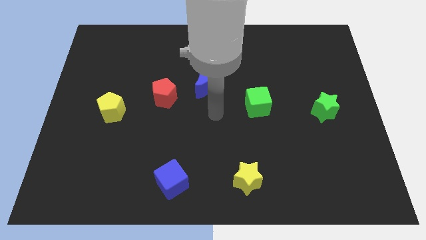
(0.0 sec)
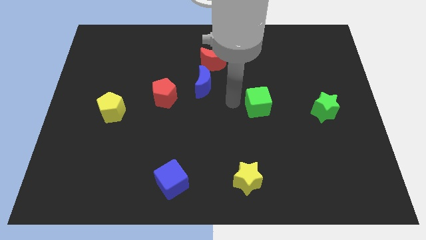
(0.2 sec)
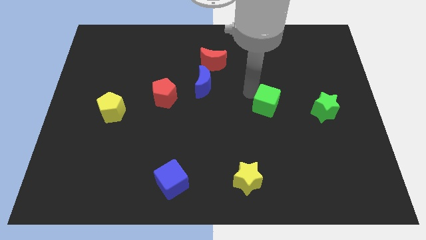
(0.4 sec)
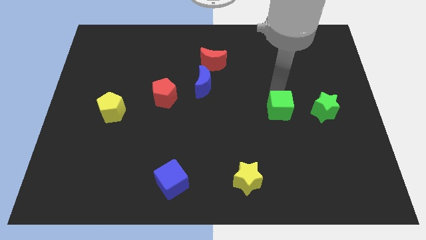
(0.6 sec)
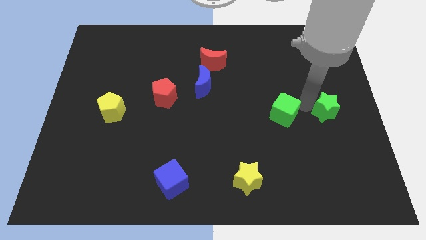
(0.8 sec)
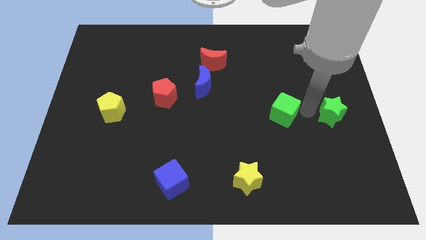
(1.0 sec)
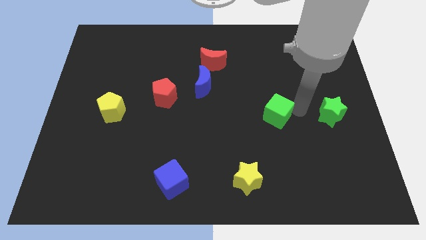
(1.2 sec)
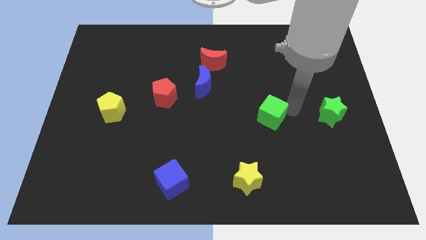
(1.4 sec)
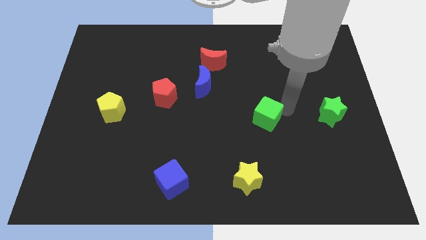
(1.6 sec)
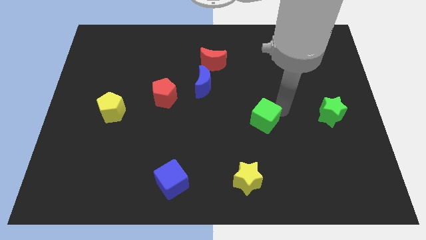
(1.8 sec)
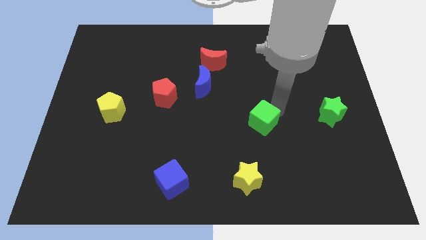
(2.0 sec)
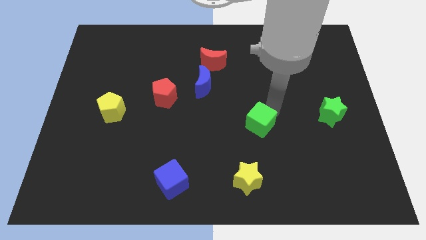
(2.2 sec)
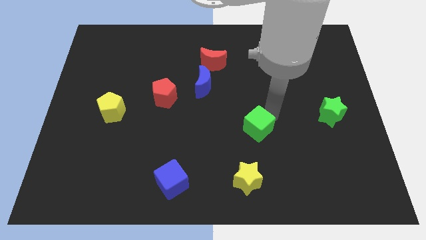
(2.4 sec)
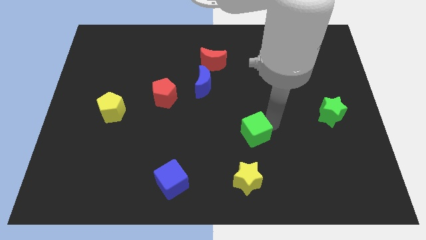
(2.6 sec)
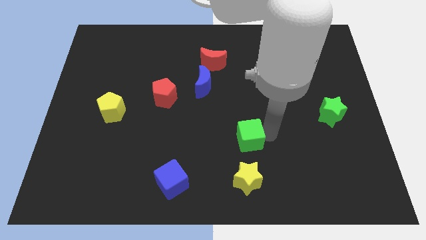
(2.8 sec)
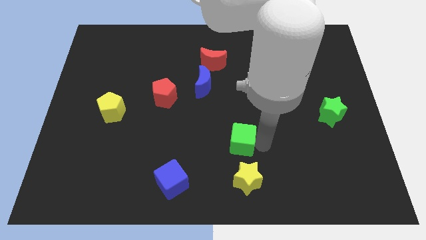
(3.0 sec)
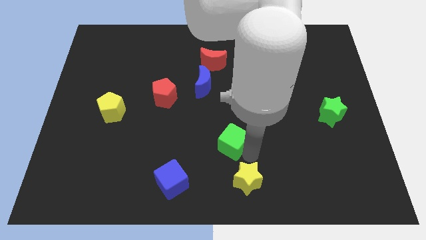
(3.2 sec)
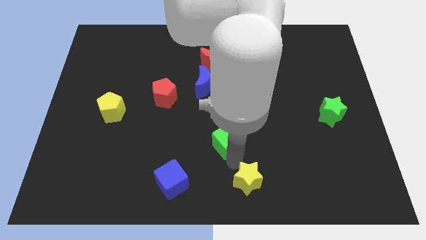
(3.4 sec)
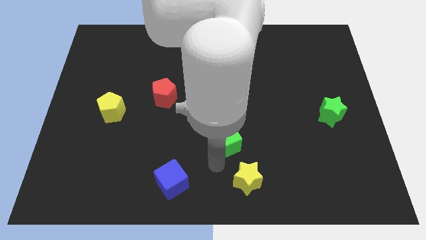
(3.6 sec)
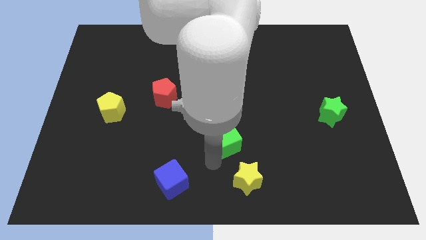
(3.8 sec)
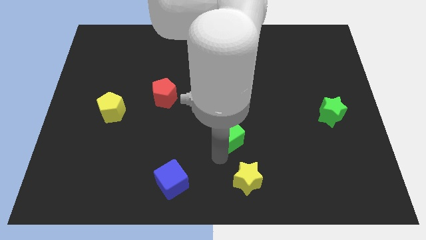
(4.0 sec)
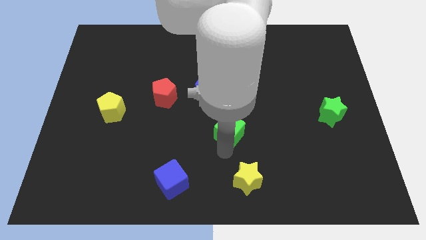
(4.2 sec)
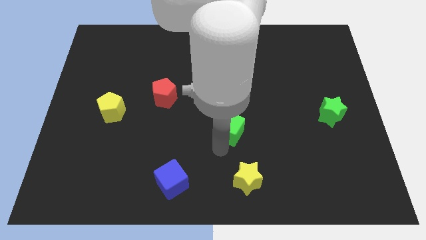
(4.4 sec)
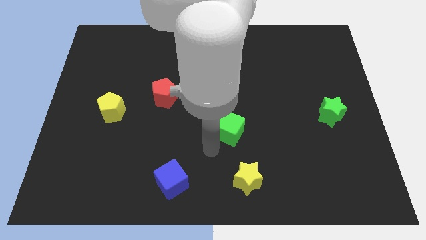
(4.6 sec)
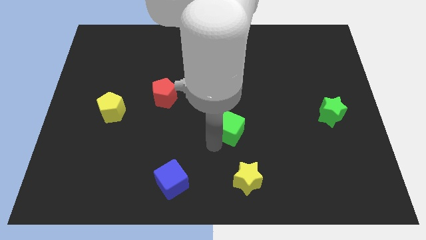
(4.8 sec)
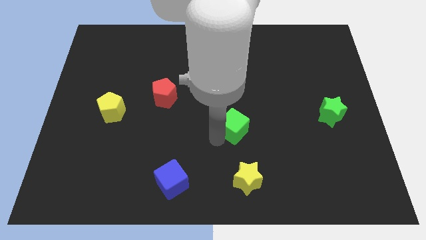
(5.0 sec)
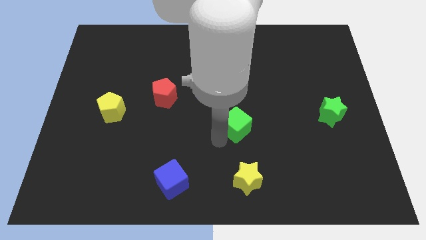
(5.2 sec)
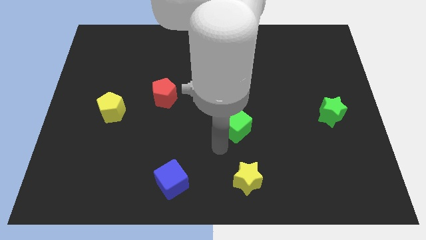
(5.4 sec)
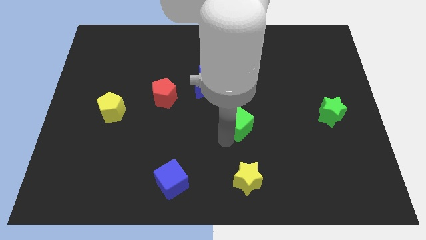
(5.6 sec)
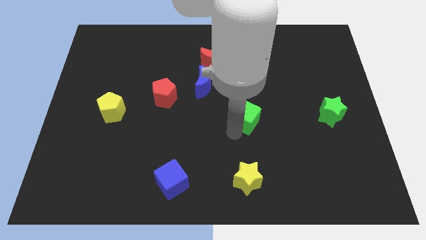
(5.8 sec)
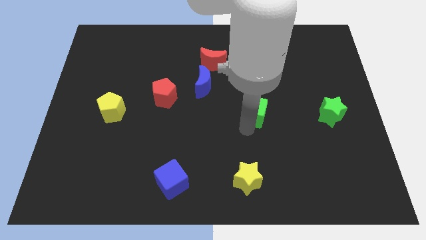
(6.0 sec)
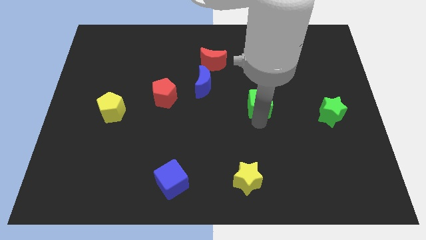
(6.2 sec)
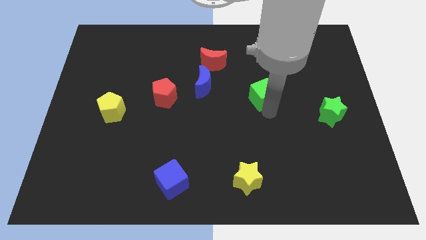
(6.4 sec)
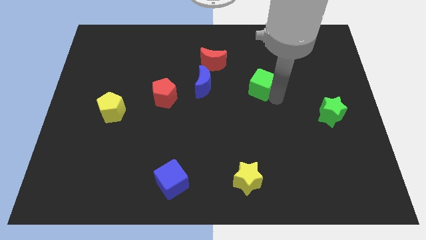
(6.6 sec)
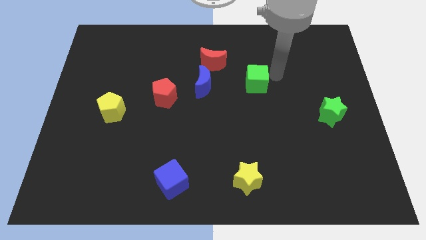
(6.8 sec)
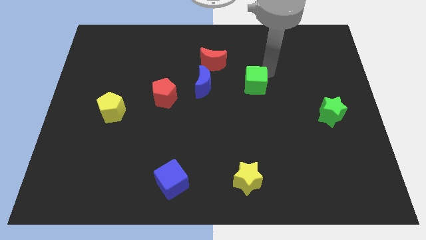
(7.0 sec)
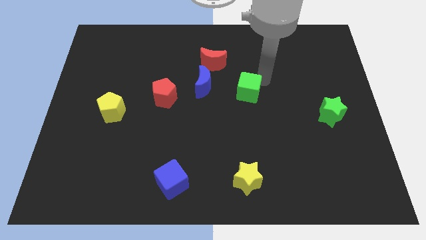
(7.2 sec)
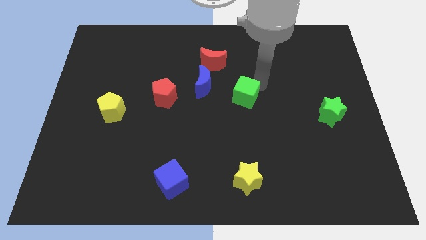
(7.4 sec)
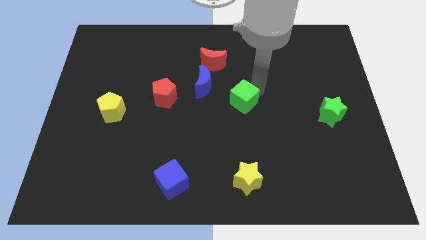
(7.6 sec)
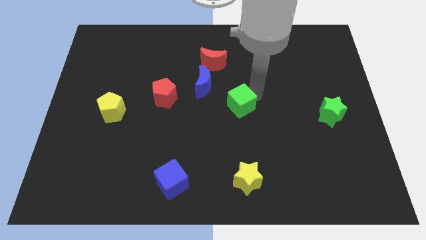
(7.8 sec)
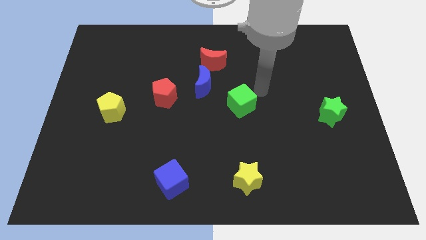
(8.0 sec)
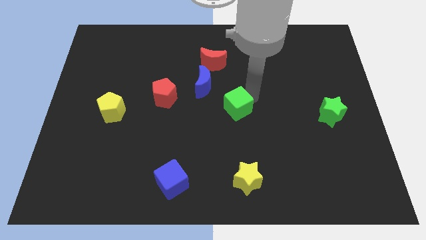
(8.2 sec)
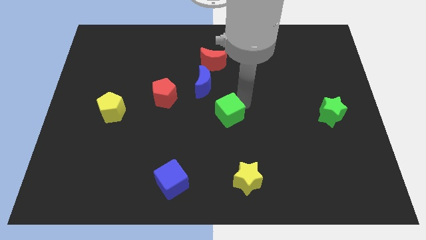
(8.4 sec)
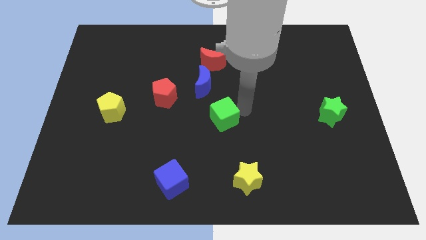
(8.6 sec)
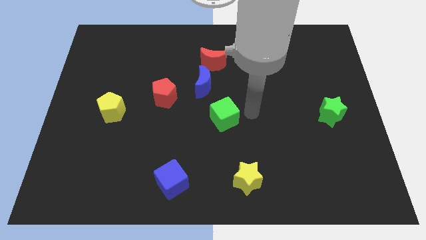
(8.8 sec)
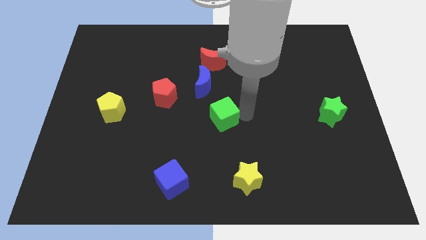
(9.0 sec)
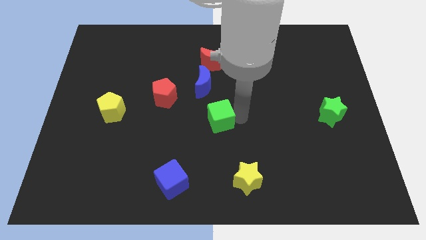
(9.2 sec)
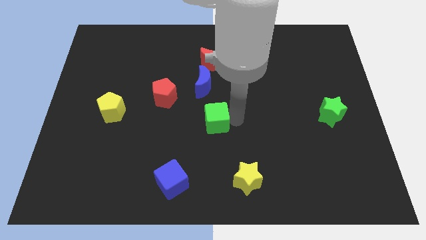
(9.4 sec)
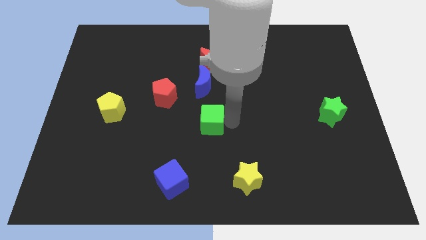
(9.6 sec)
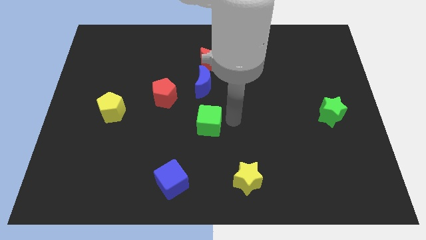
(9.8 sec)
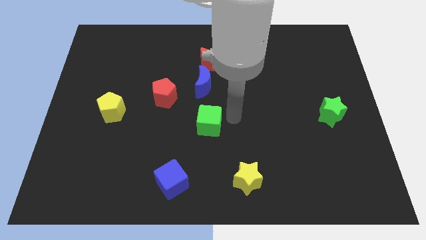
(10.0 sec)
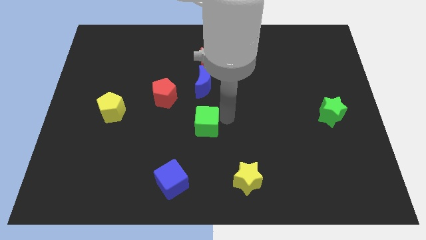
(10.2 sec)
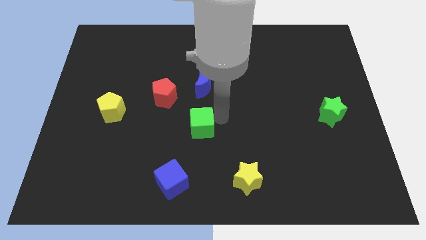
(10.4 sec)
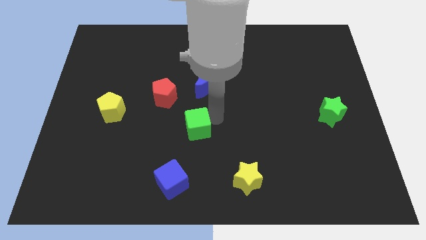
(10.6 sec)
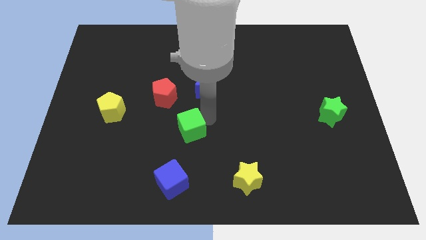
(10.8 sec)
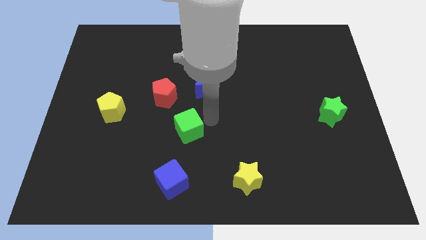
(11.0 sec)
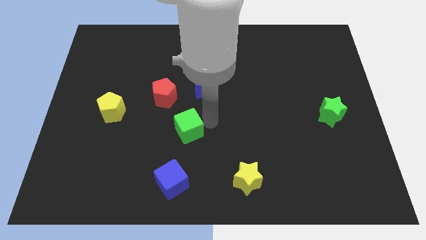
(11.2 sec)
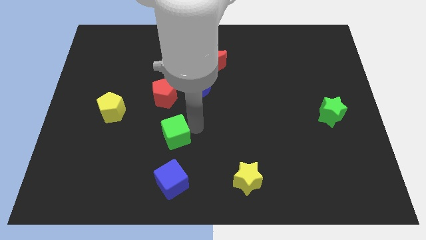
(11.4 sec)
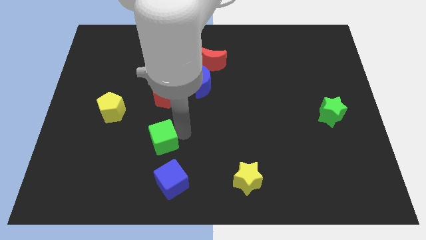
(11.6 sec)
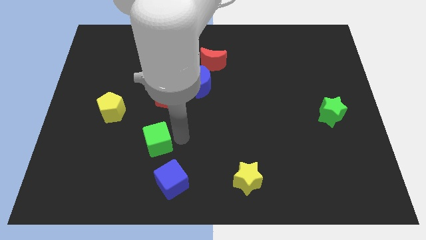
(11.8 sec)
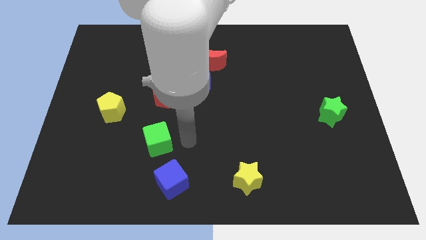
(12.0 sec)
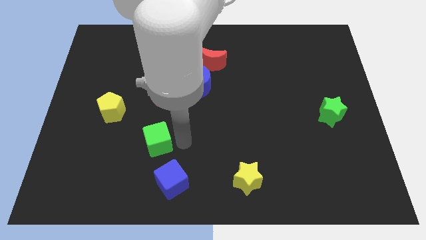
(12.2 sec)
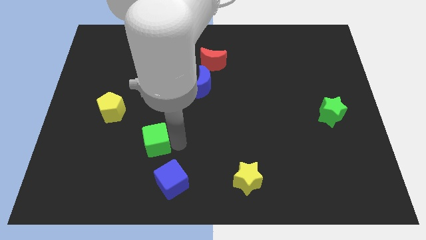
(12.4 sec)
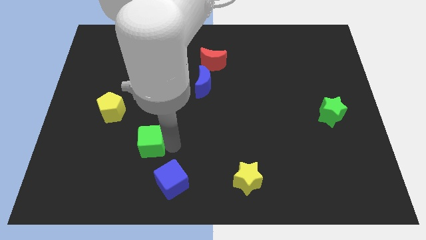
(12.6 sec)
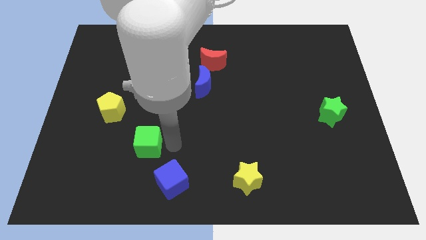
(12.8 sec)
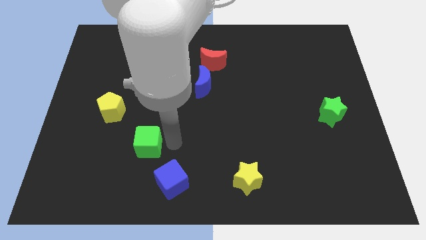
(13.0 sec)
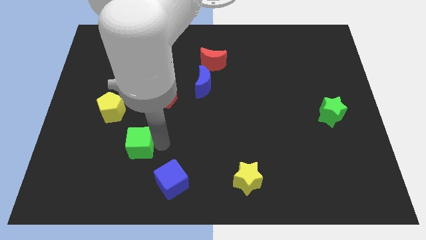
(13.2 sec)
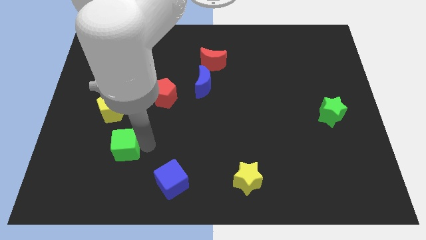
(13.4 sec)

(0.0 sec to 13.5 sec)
put the green cube below the yellow pentagon

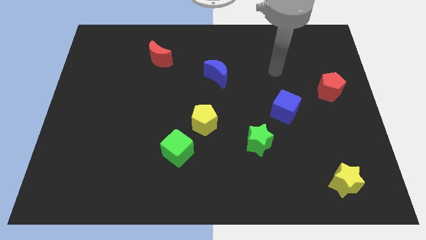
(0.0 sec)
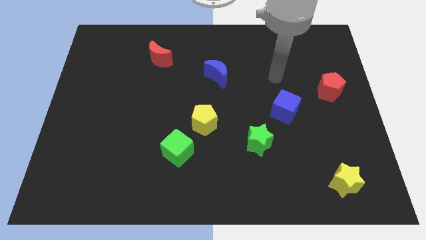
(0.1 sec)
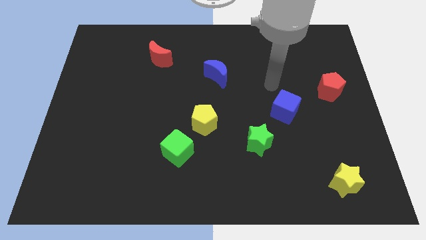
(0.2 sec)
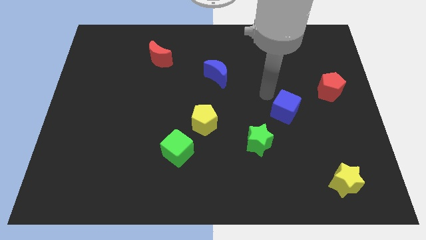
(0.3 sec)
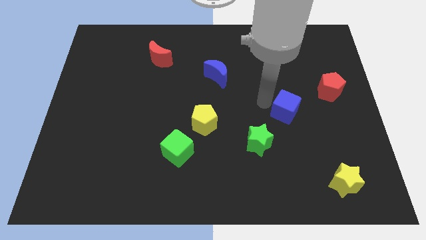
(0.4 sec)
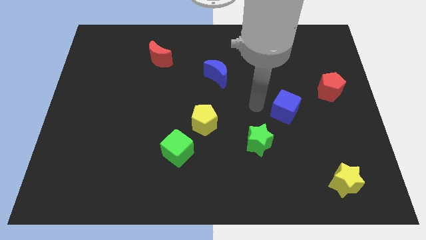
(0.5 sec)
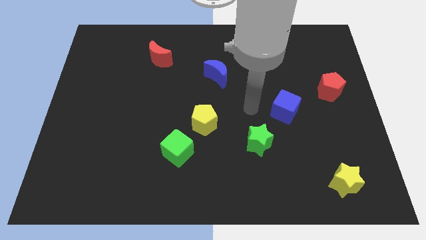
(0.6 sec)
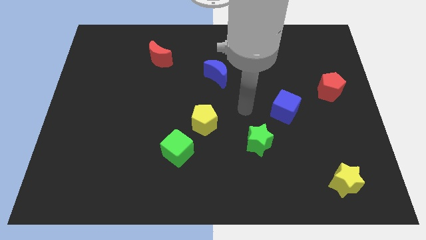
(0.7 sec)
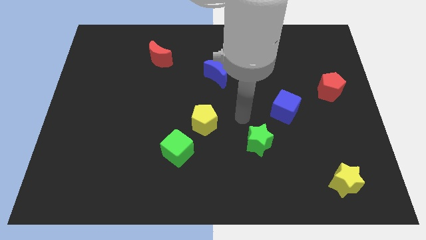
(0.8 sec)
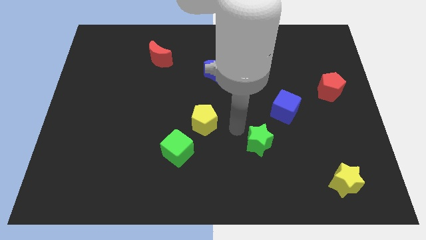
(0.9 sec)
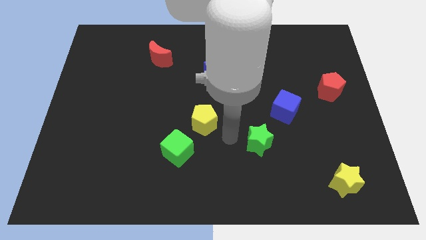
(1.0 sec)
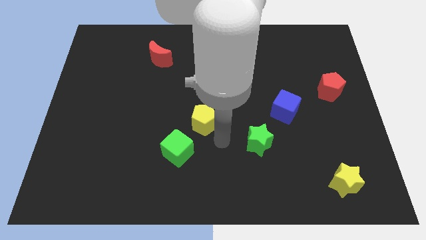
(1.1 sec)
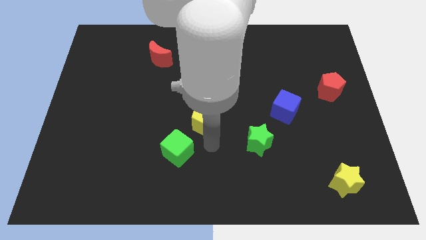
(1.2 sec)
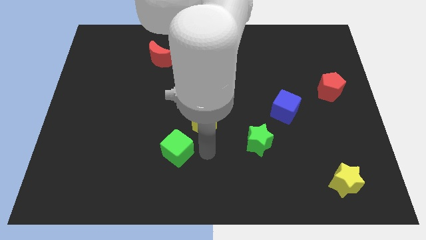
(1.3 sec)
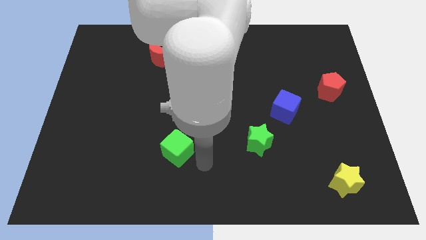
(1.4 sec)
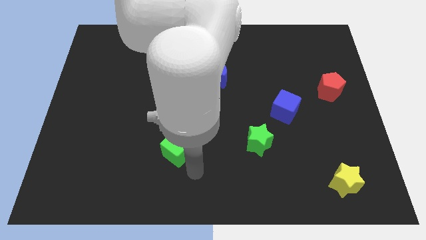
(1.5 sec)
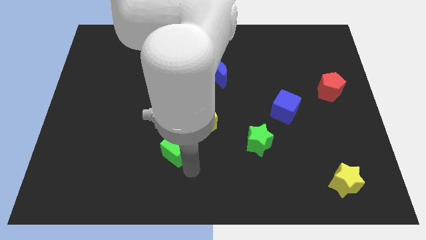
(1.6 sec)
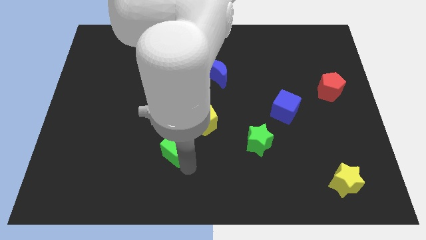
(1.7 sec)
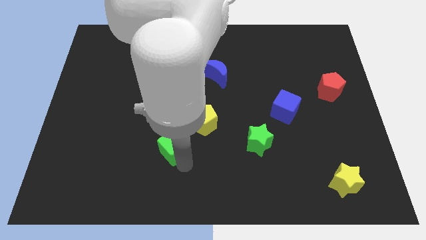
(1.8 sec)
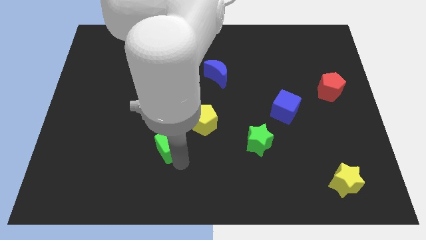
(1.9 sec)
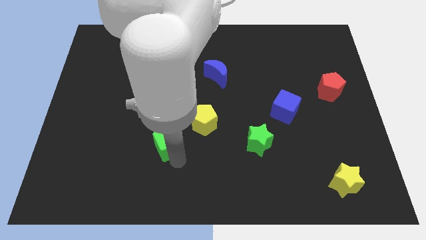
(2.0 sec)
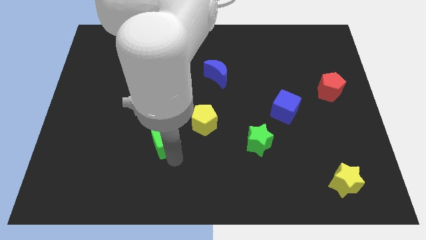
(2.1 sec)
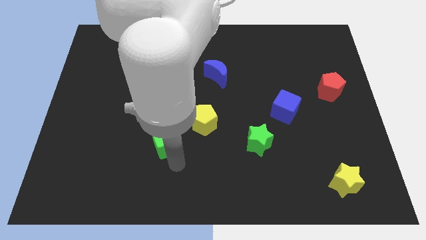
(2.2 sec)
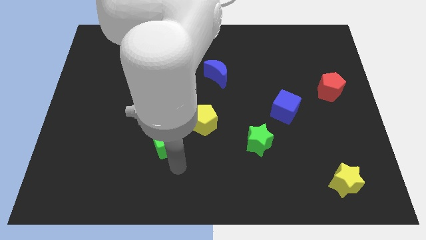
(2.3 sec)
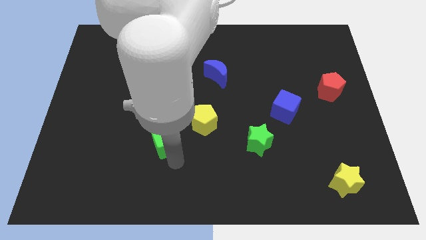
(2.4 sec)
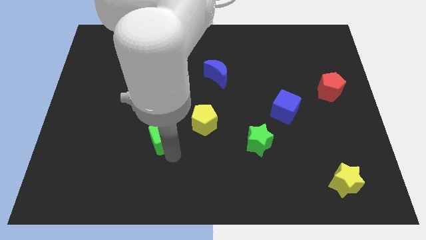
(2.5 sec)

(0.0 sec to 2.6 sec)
push the green cube to the left side of the yellow pentagon
